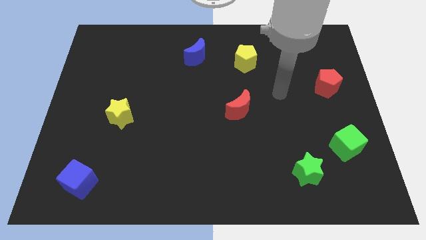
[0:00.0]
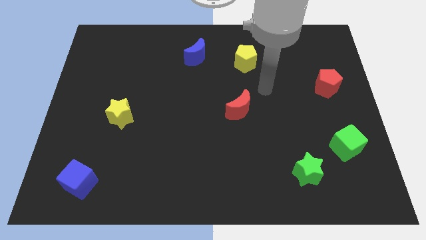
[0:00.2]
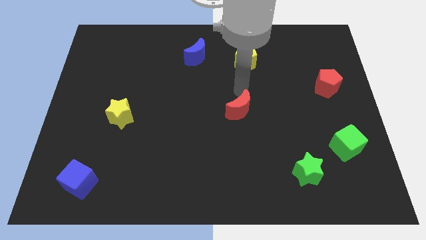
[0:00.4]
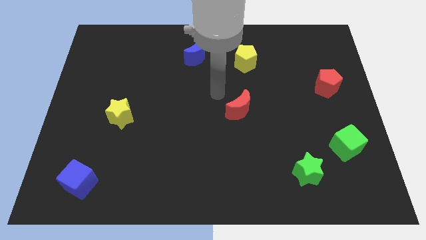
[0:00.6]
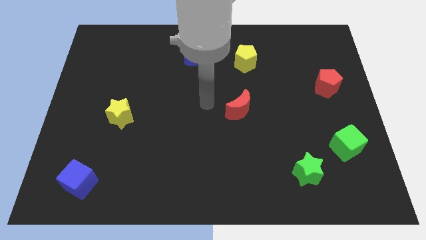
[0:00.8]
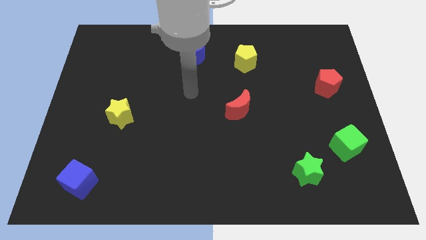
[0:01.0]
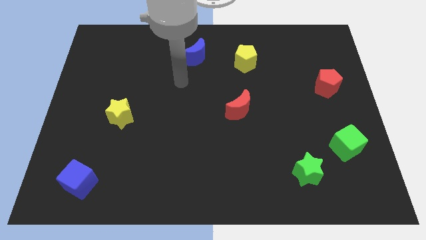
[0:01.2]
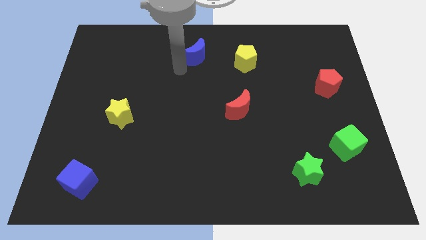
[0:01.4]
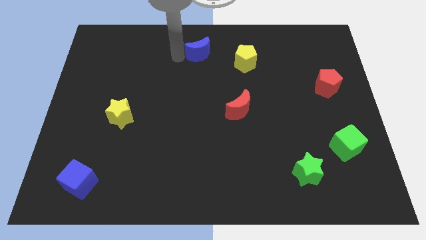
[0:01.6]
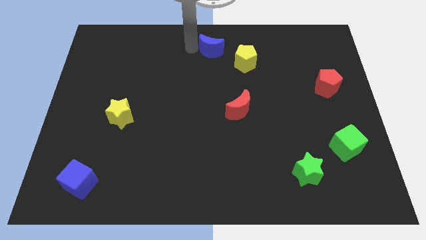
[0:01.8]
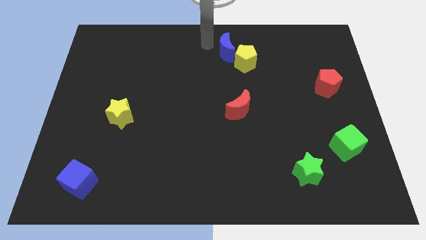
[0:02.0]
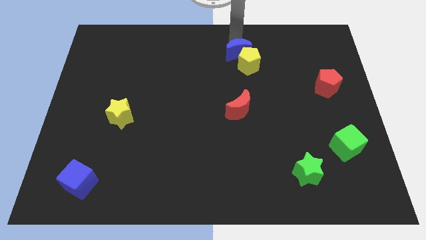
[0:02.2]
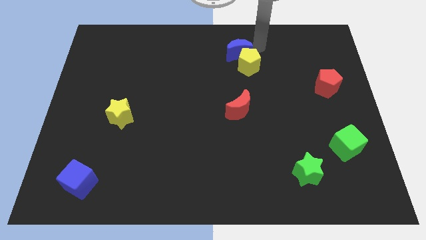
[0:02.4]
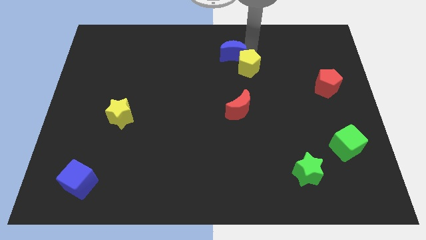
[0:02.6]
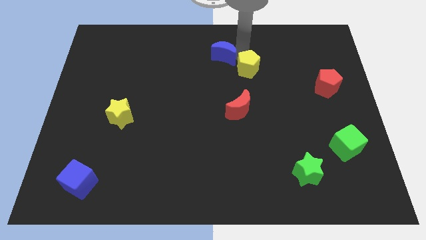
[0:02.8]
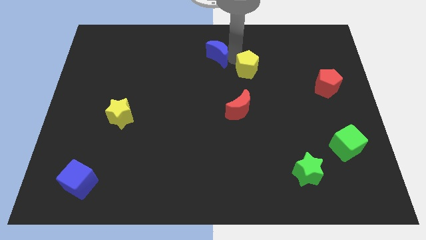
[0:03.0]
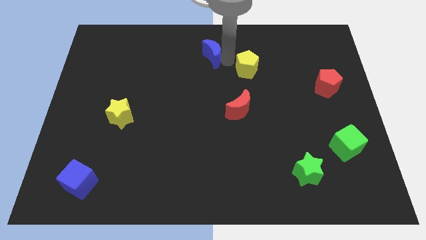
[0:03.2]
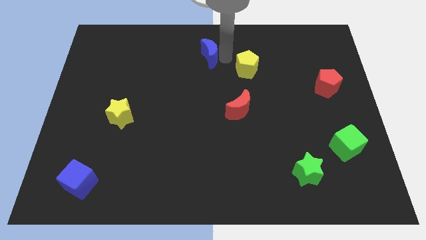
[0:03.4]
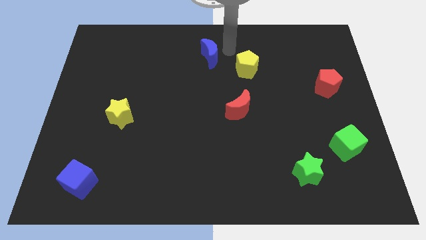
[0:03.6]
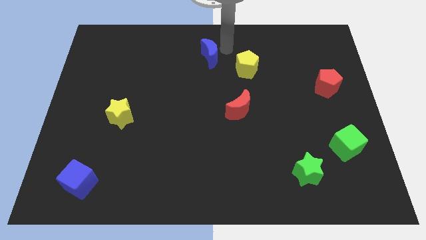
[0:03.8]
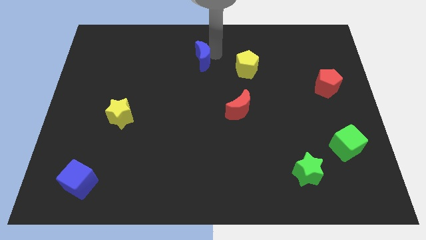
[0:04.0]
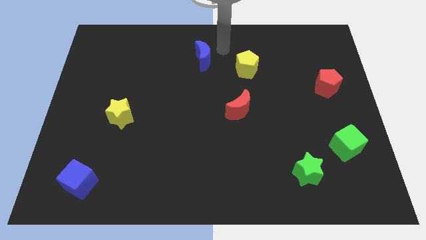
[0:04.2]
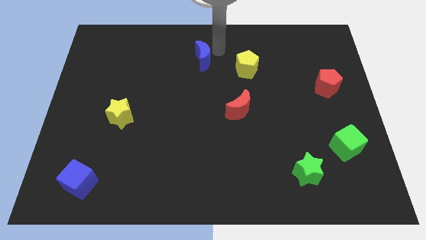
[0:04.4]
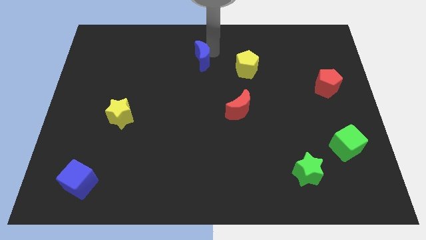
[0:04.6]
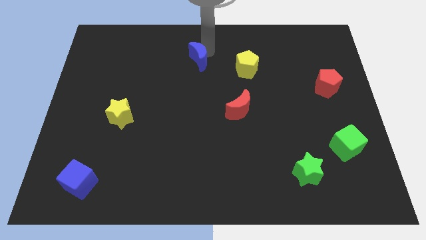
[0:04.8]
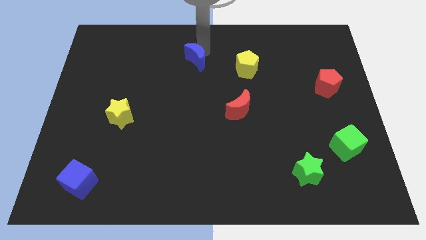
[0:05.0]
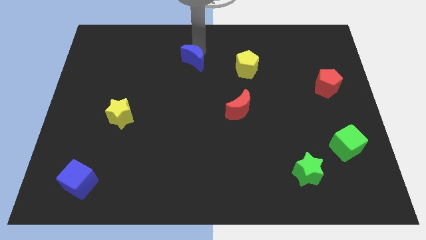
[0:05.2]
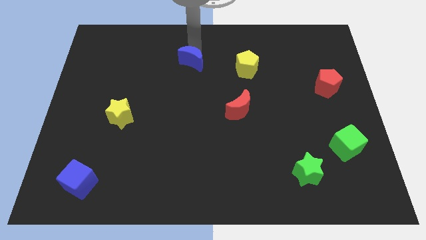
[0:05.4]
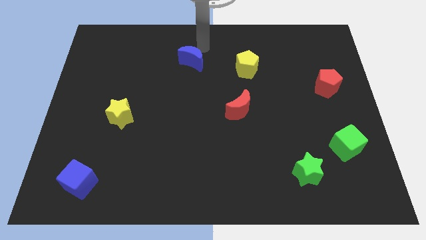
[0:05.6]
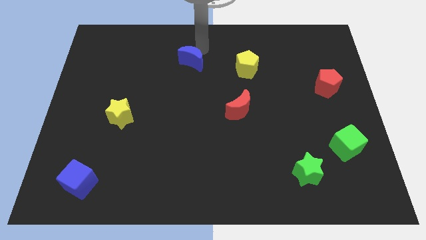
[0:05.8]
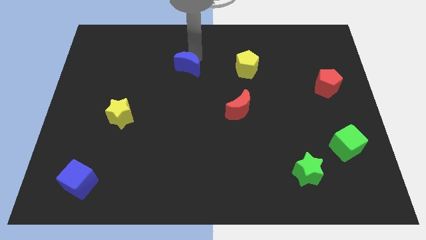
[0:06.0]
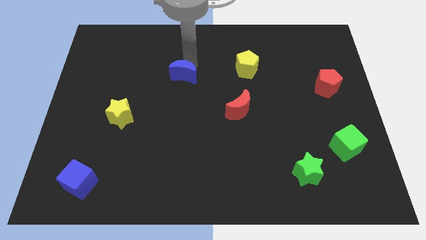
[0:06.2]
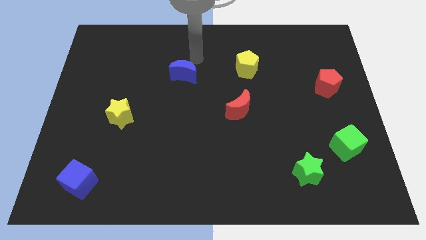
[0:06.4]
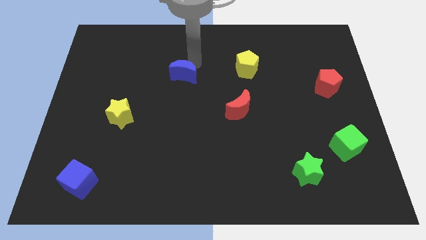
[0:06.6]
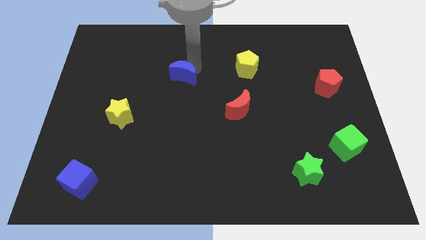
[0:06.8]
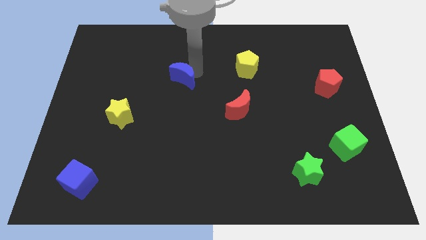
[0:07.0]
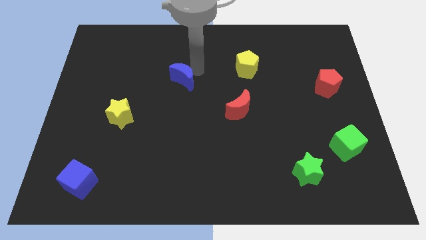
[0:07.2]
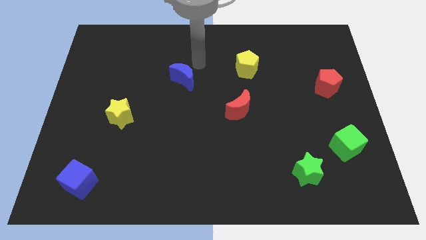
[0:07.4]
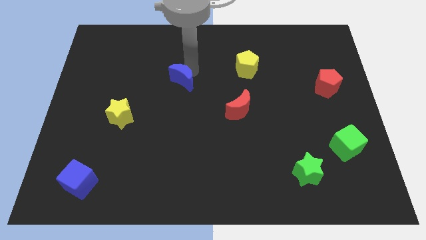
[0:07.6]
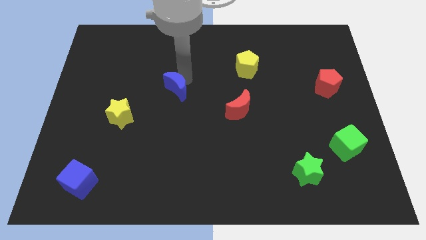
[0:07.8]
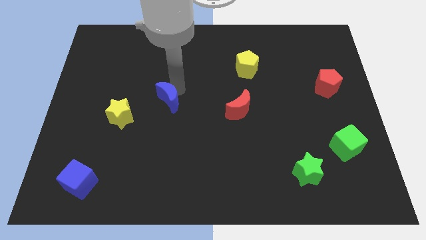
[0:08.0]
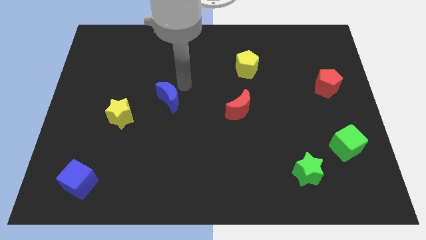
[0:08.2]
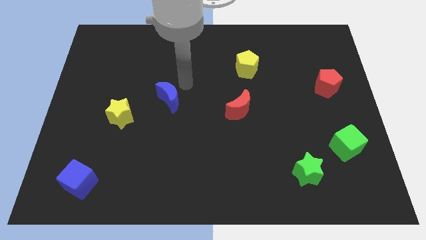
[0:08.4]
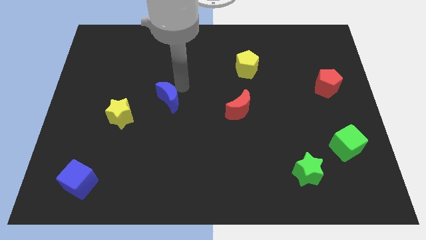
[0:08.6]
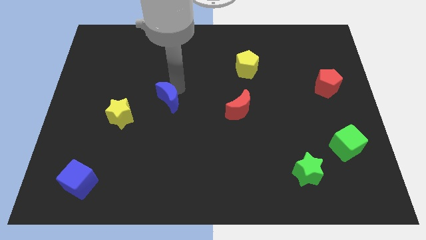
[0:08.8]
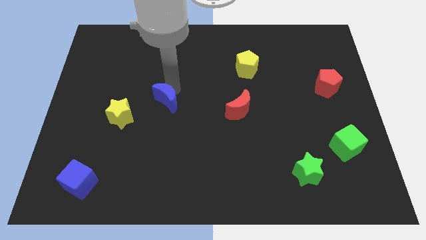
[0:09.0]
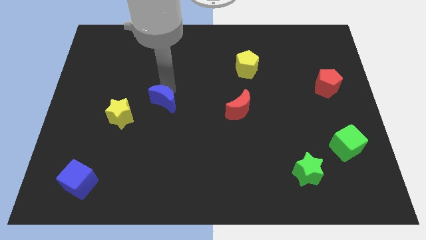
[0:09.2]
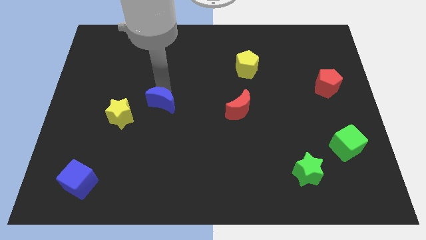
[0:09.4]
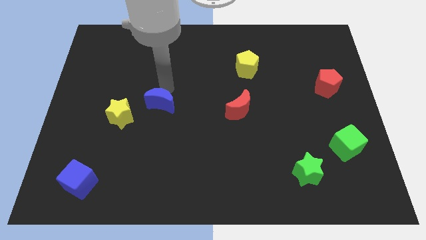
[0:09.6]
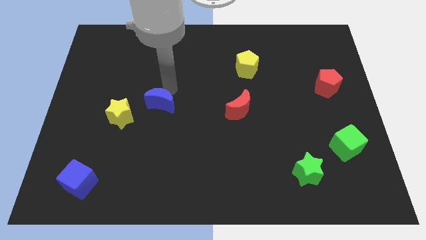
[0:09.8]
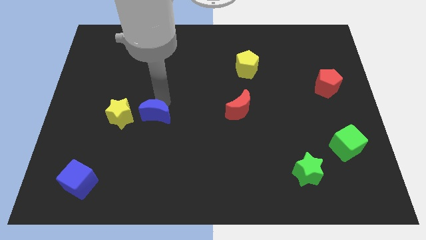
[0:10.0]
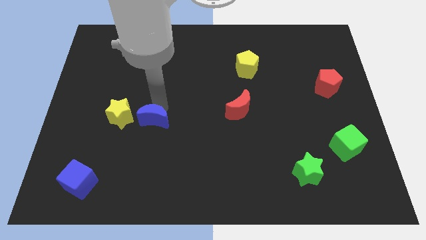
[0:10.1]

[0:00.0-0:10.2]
push the blue moon to the bottom right of the yellow star

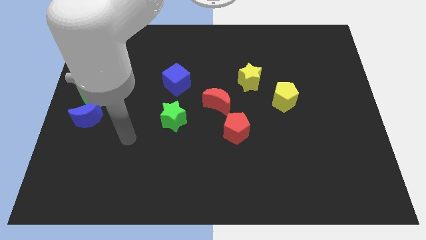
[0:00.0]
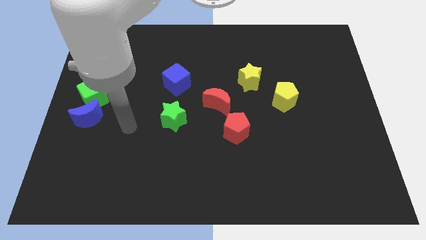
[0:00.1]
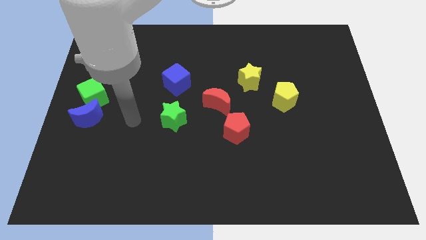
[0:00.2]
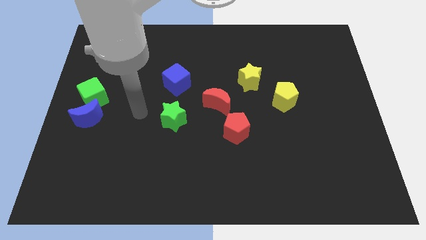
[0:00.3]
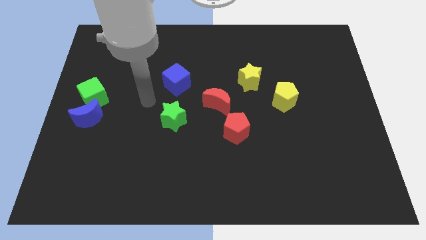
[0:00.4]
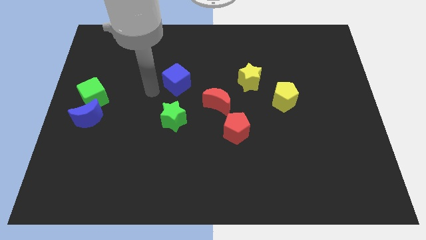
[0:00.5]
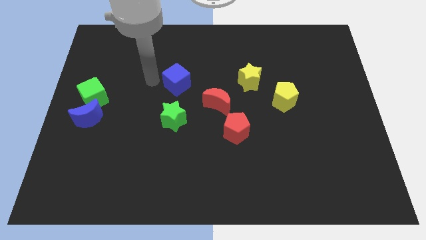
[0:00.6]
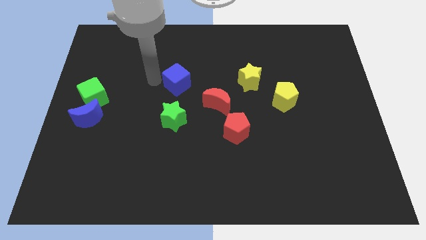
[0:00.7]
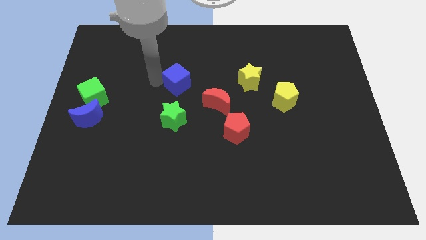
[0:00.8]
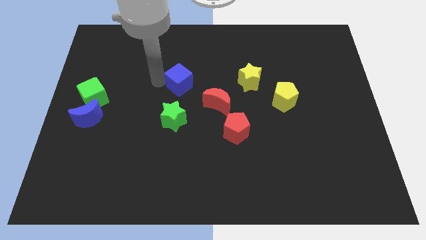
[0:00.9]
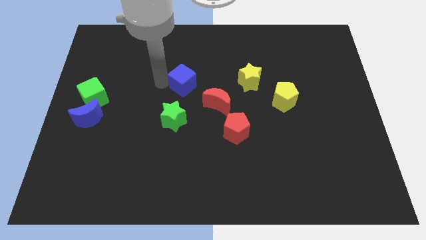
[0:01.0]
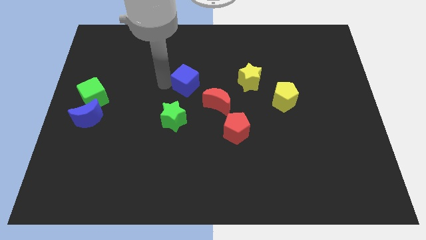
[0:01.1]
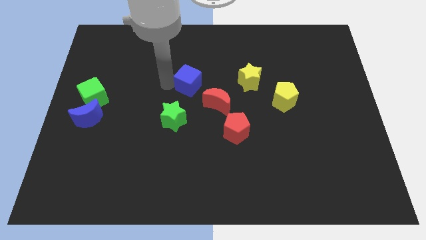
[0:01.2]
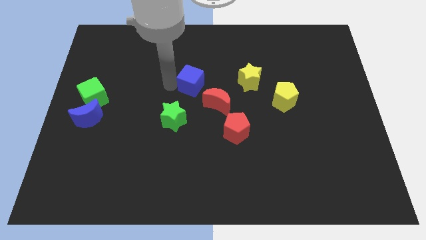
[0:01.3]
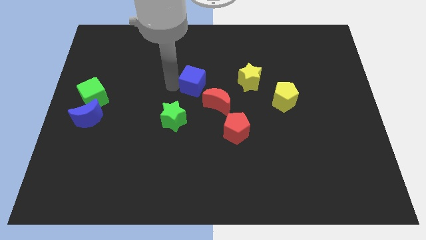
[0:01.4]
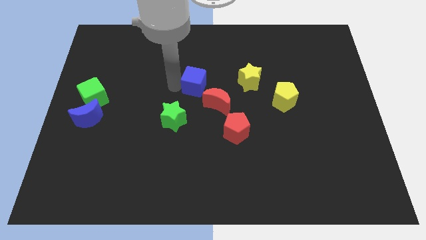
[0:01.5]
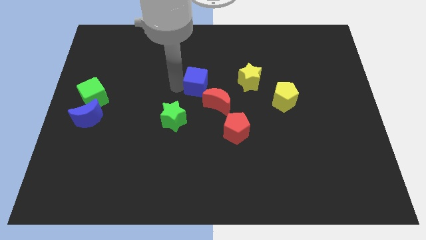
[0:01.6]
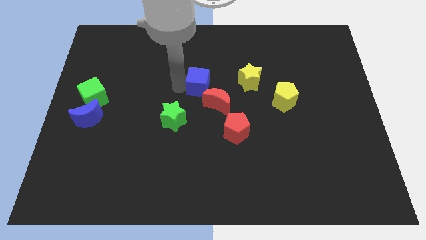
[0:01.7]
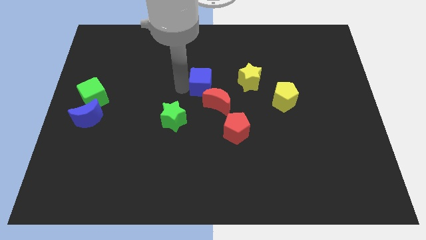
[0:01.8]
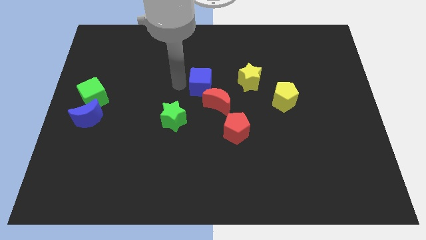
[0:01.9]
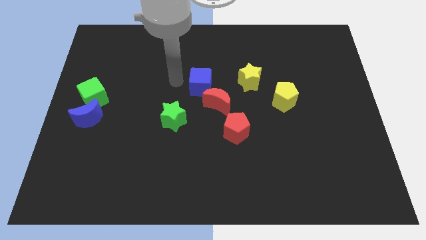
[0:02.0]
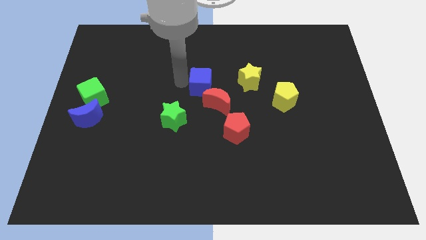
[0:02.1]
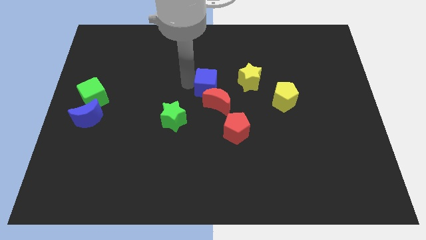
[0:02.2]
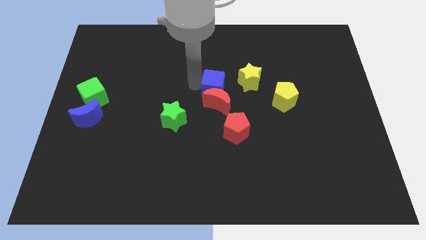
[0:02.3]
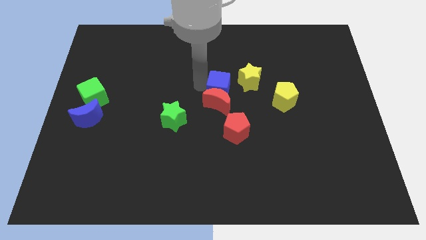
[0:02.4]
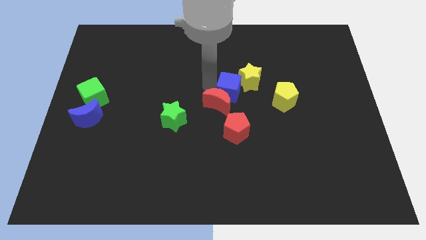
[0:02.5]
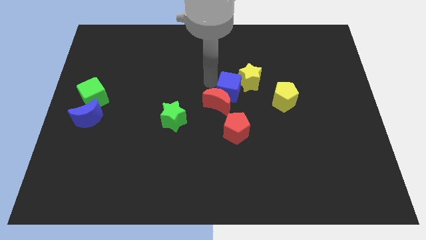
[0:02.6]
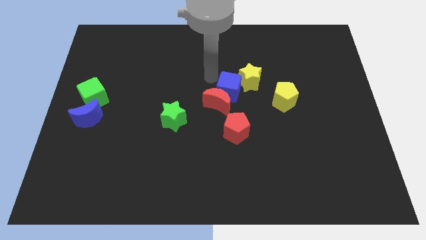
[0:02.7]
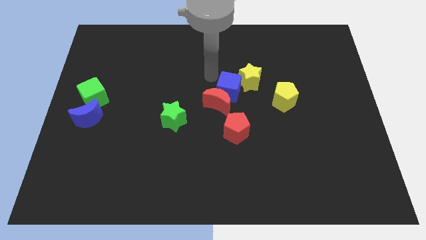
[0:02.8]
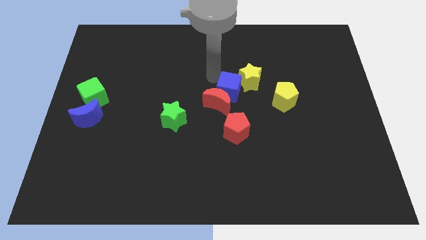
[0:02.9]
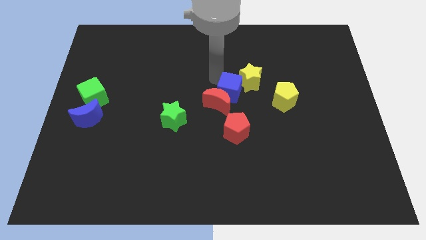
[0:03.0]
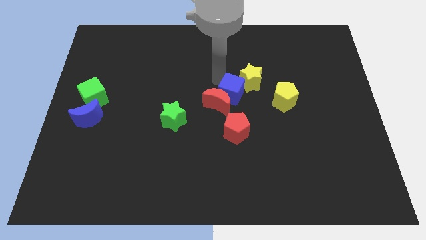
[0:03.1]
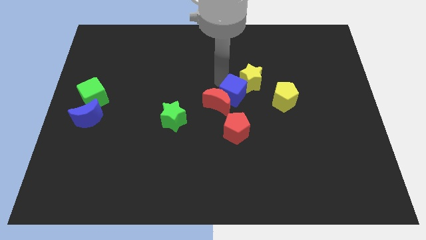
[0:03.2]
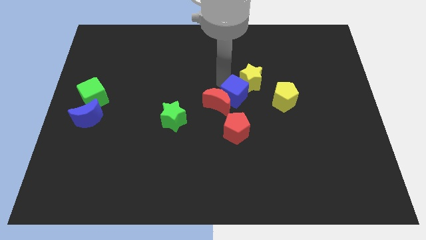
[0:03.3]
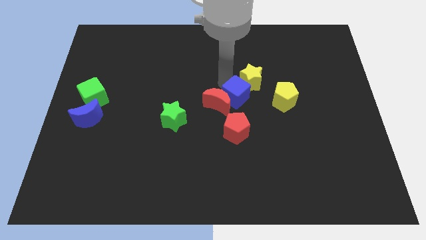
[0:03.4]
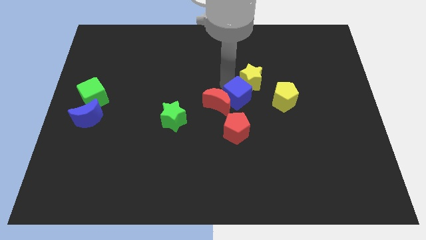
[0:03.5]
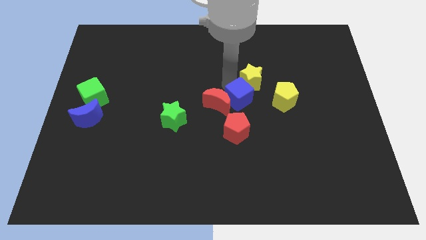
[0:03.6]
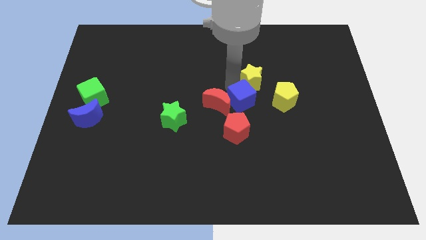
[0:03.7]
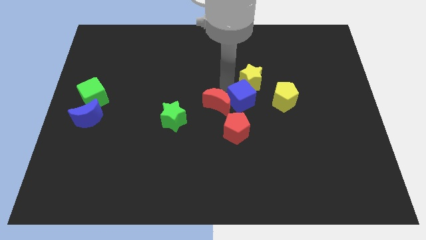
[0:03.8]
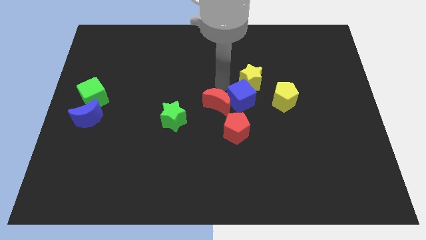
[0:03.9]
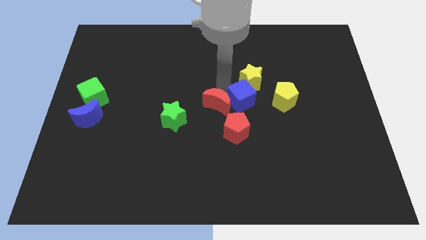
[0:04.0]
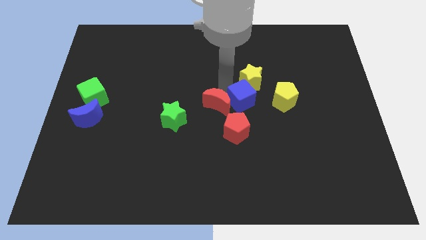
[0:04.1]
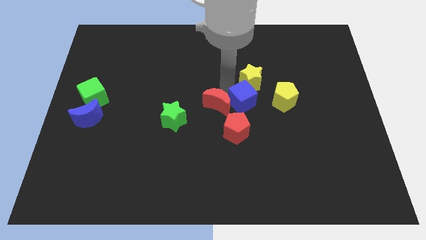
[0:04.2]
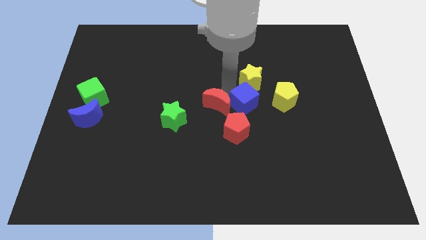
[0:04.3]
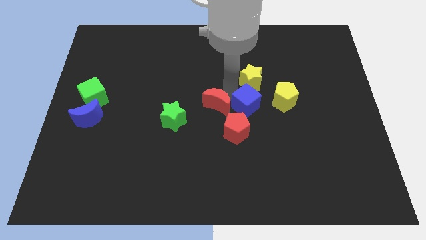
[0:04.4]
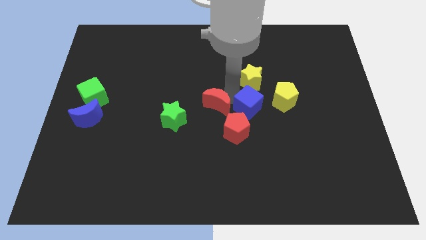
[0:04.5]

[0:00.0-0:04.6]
push the blue cube to the bottom left of the yellow pentagon
